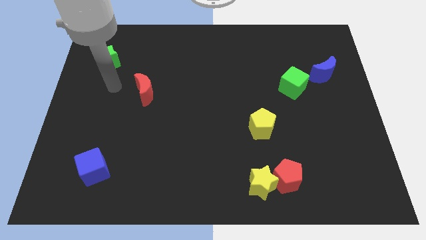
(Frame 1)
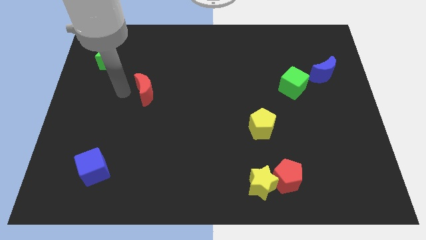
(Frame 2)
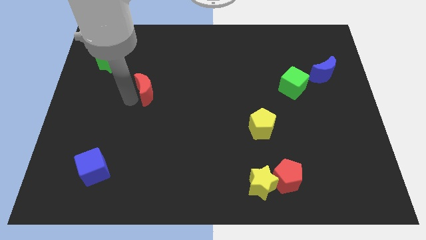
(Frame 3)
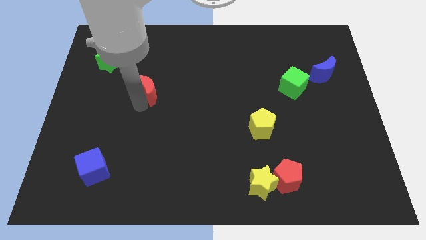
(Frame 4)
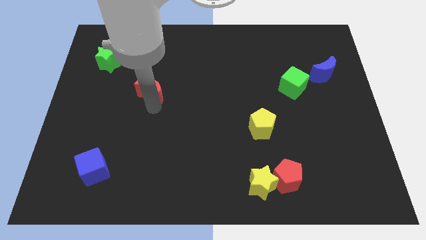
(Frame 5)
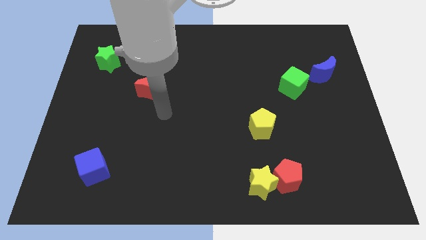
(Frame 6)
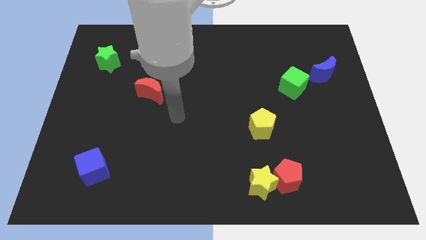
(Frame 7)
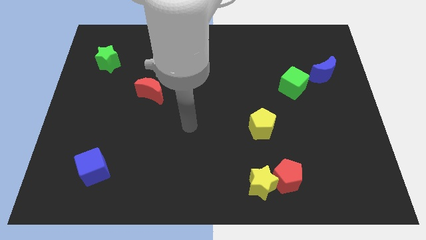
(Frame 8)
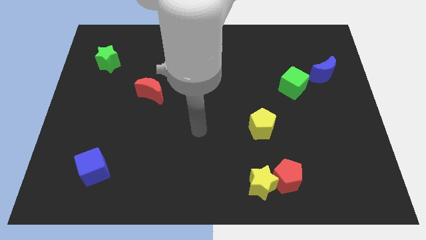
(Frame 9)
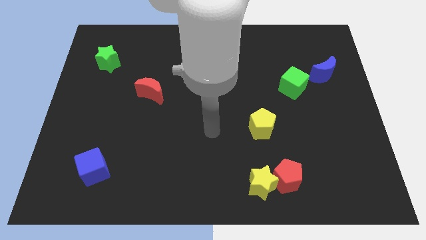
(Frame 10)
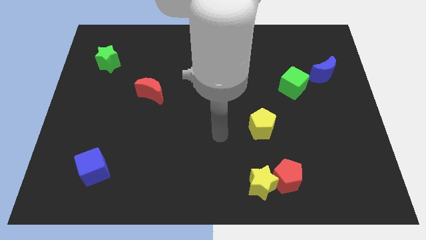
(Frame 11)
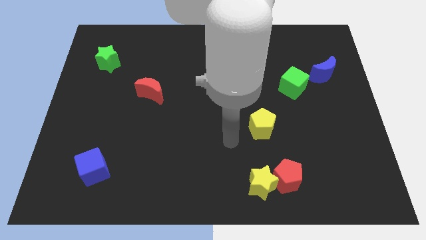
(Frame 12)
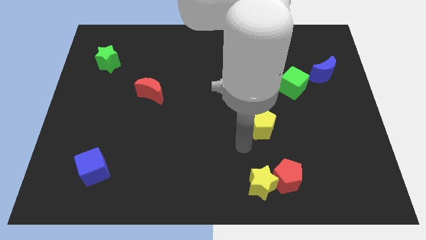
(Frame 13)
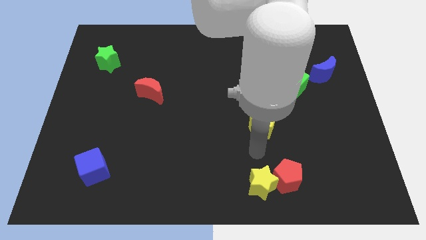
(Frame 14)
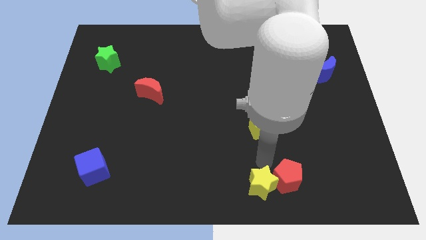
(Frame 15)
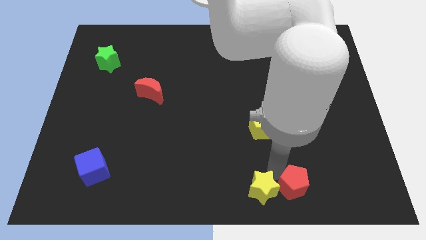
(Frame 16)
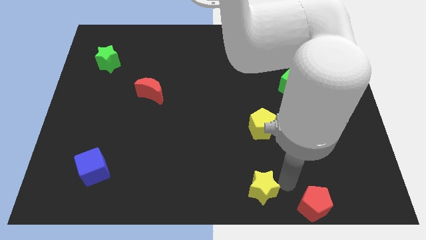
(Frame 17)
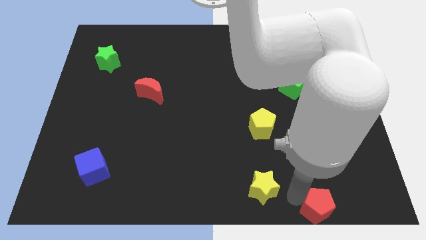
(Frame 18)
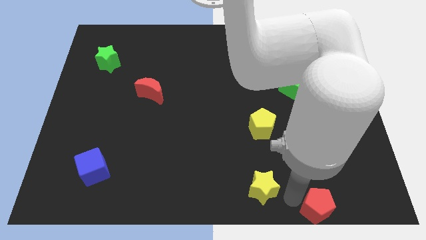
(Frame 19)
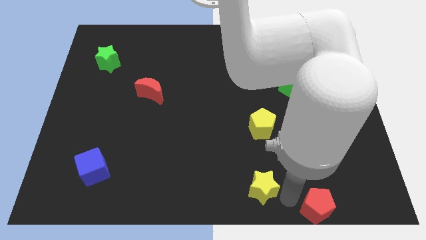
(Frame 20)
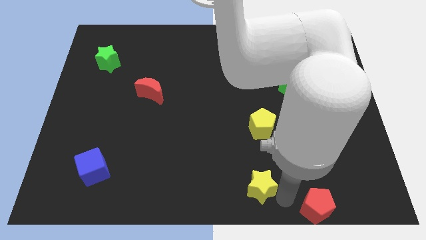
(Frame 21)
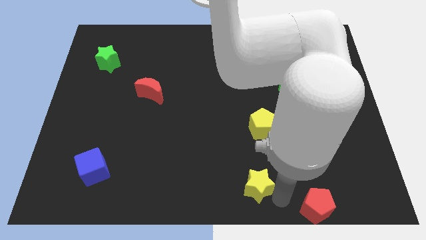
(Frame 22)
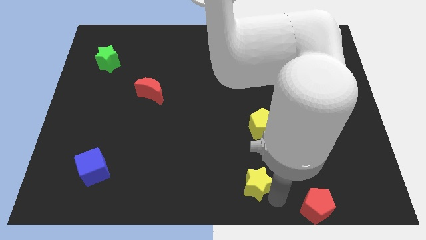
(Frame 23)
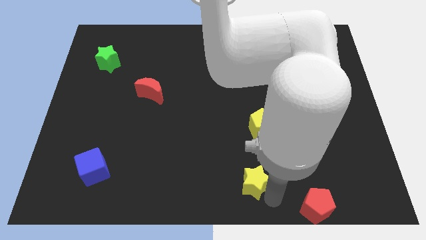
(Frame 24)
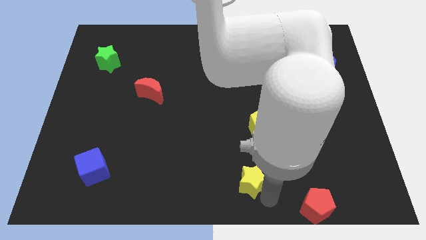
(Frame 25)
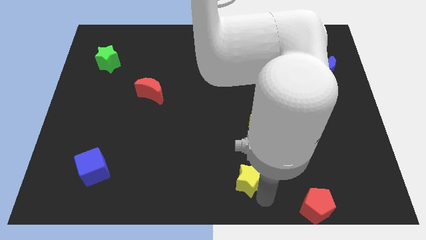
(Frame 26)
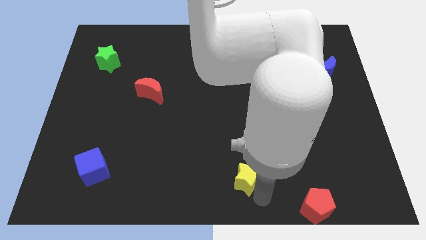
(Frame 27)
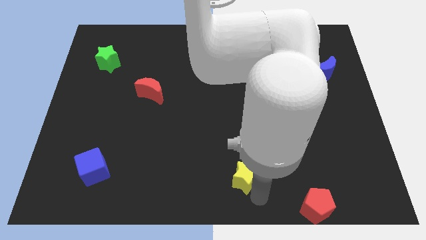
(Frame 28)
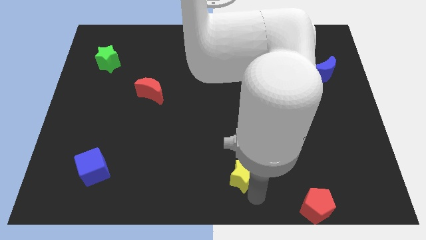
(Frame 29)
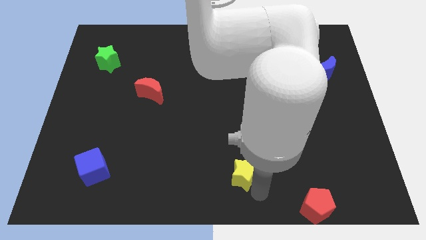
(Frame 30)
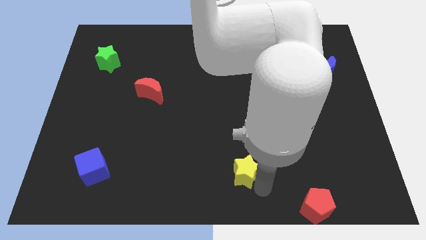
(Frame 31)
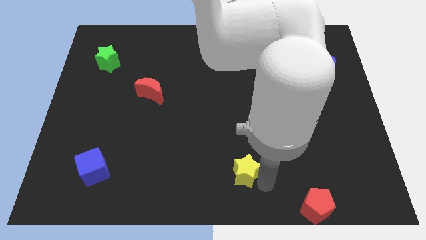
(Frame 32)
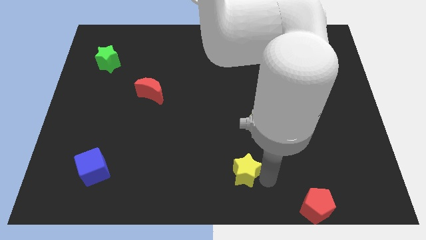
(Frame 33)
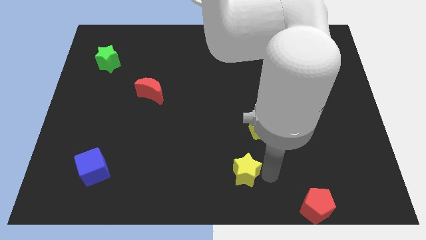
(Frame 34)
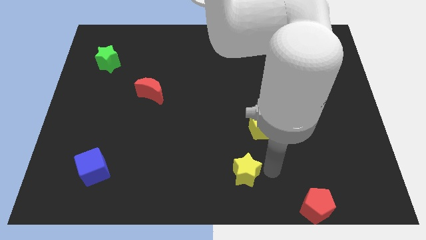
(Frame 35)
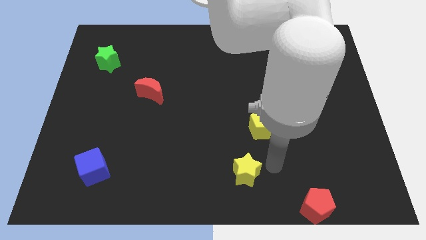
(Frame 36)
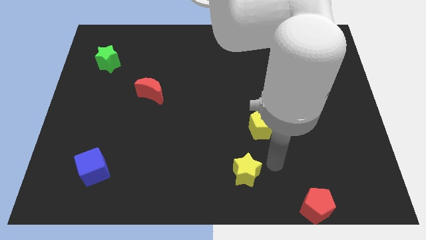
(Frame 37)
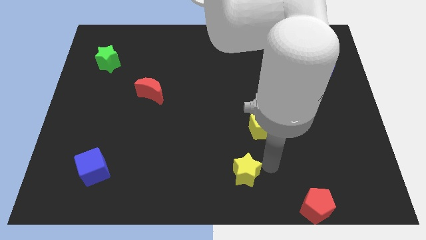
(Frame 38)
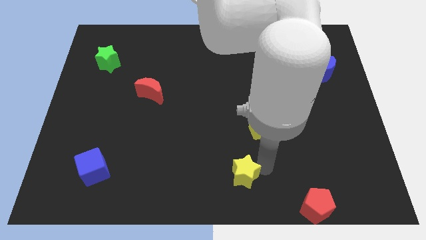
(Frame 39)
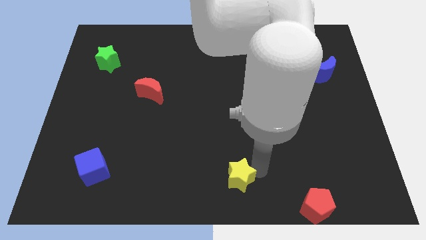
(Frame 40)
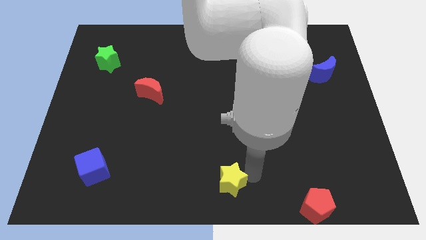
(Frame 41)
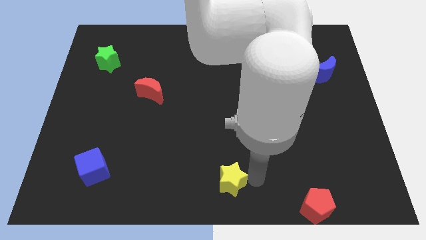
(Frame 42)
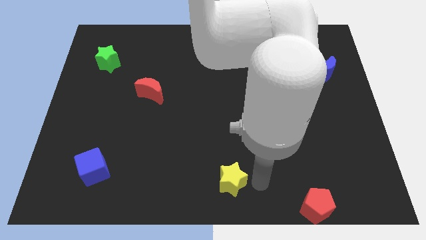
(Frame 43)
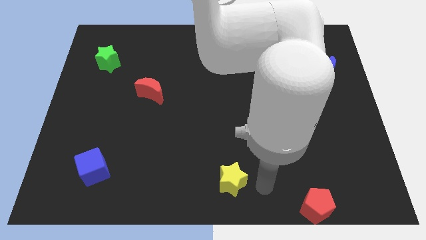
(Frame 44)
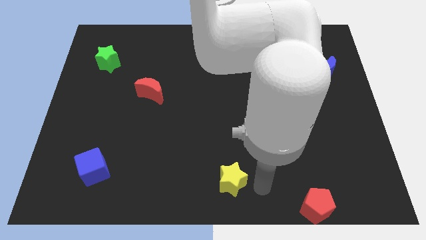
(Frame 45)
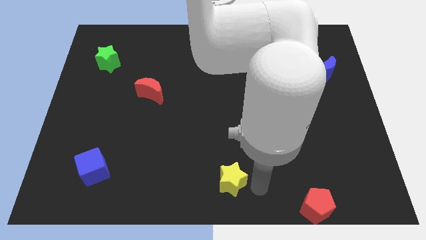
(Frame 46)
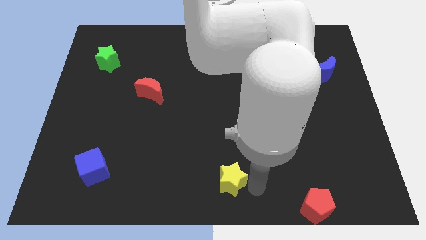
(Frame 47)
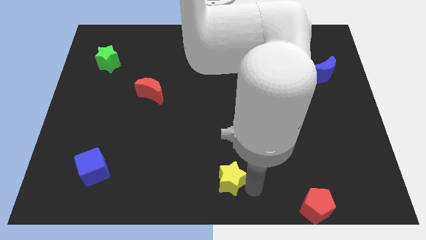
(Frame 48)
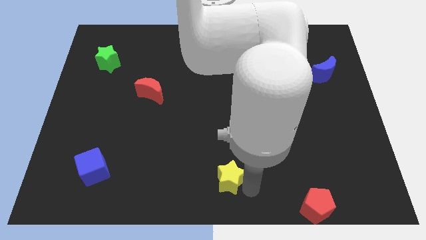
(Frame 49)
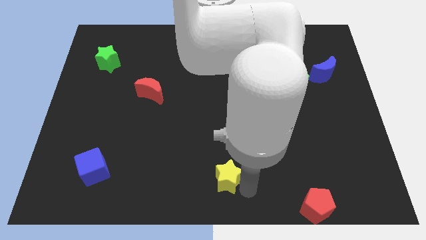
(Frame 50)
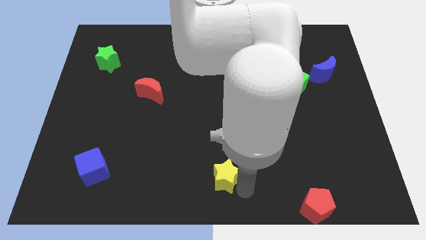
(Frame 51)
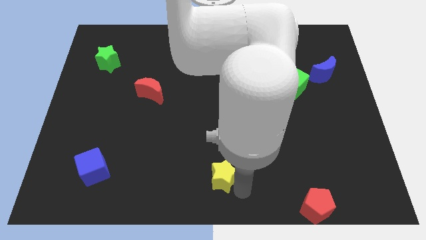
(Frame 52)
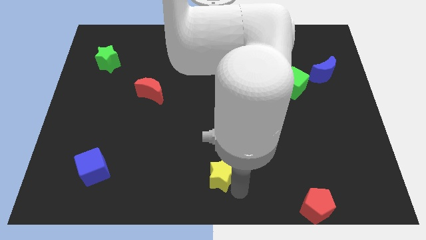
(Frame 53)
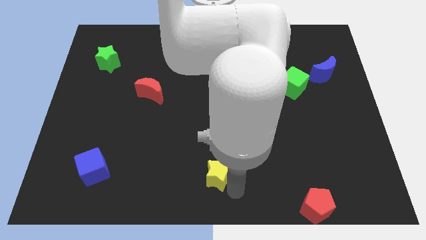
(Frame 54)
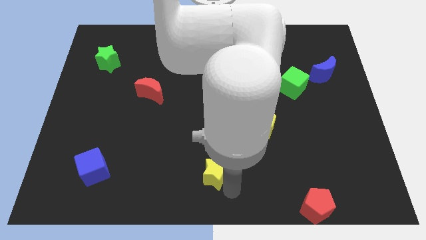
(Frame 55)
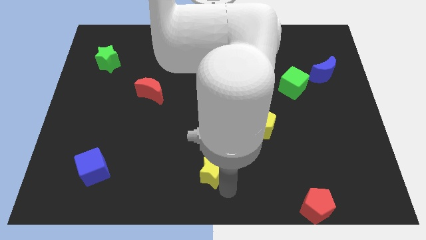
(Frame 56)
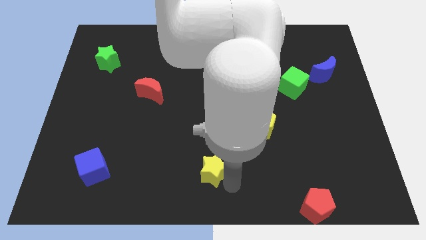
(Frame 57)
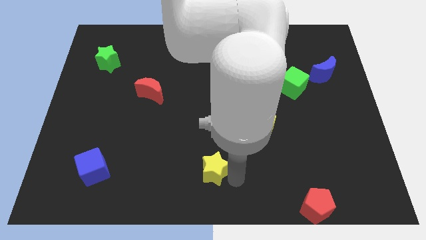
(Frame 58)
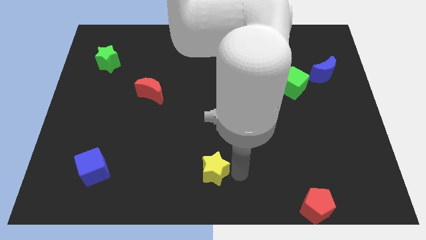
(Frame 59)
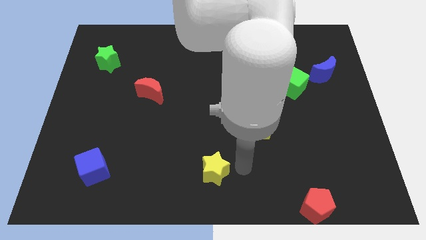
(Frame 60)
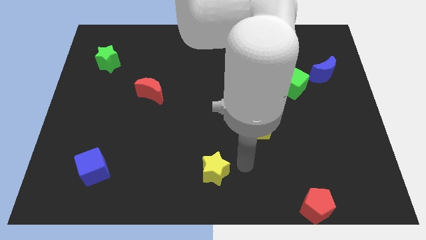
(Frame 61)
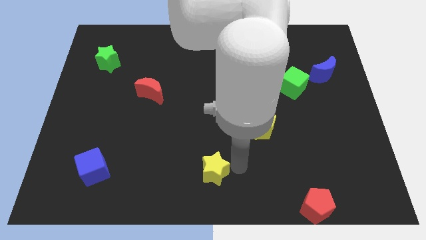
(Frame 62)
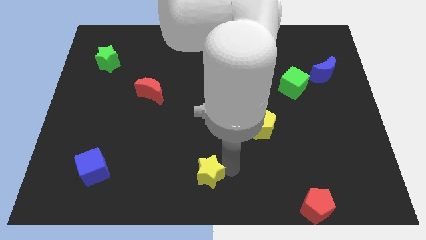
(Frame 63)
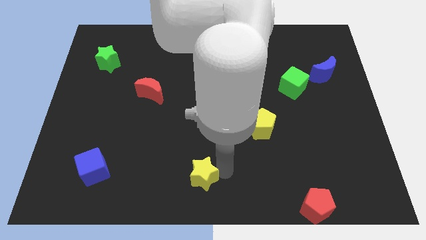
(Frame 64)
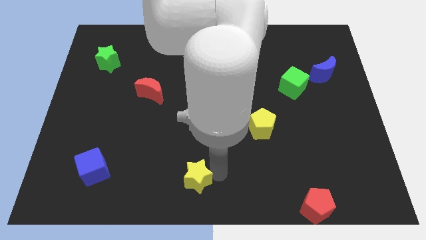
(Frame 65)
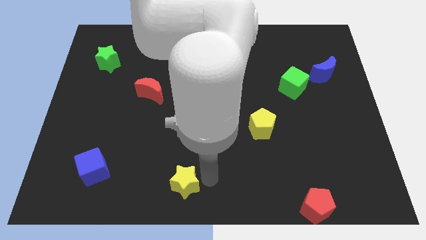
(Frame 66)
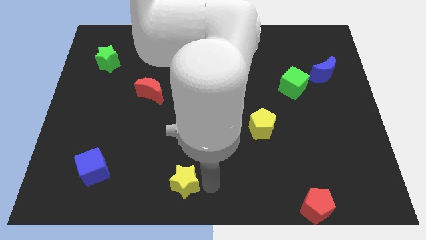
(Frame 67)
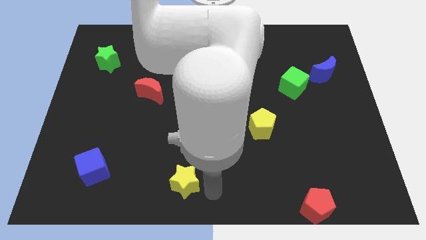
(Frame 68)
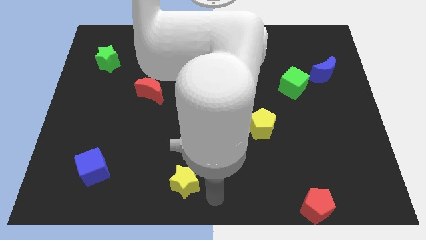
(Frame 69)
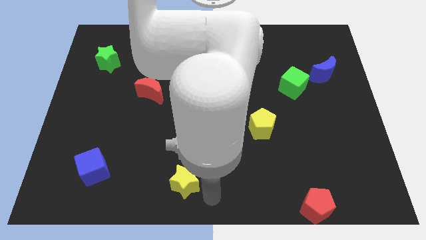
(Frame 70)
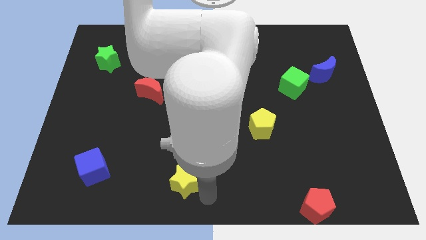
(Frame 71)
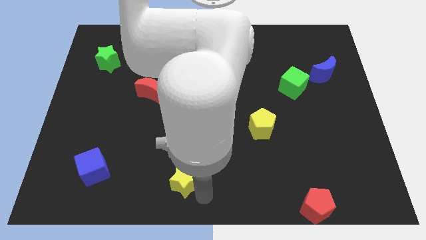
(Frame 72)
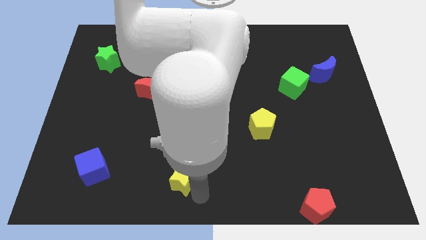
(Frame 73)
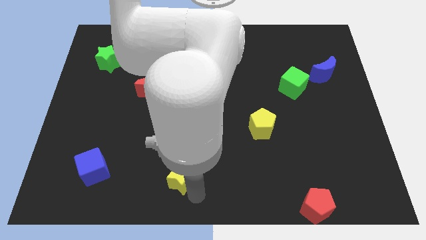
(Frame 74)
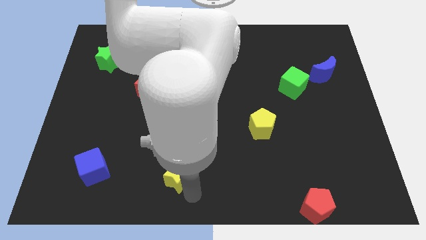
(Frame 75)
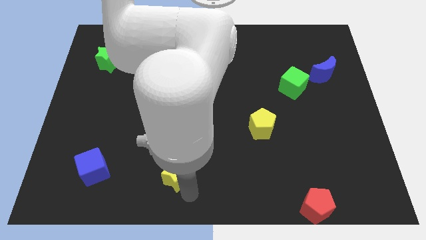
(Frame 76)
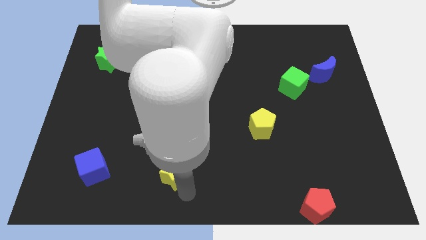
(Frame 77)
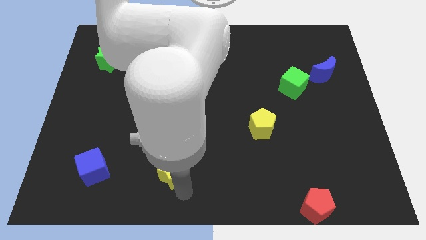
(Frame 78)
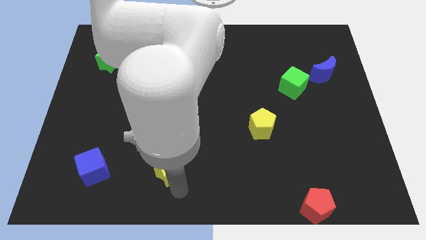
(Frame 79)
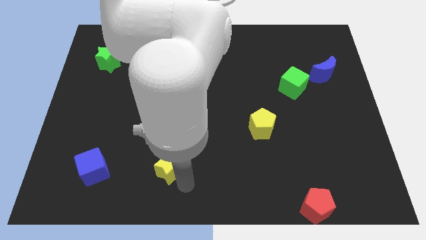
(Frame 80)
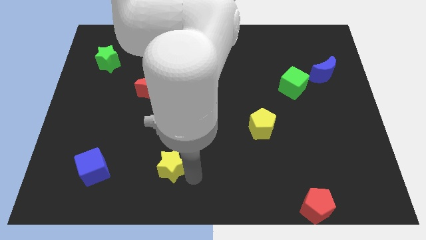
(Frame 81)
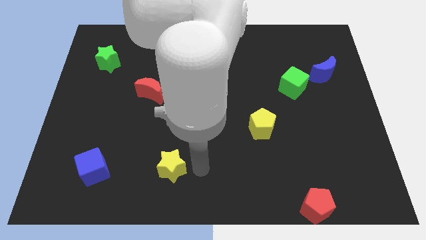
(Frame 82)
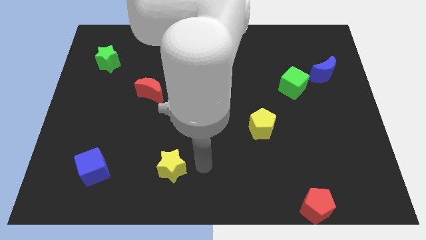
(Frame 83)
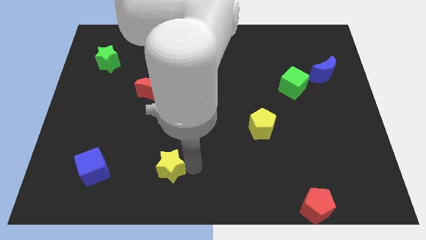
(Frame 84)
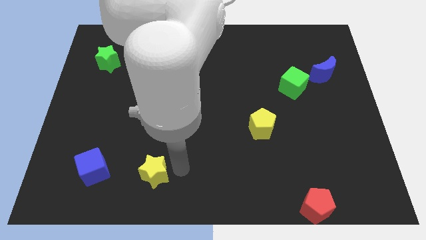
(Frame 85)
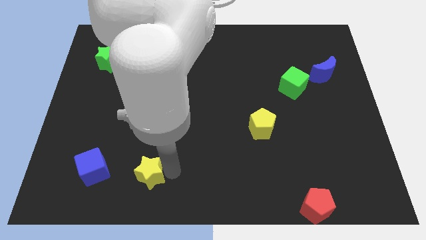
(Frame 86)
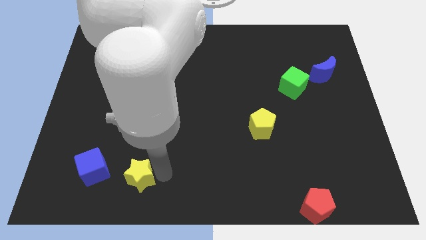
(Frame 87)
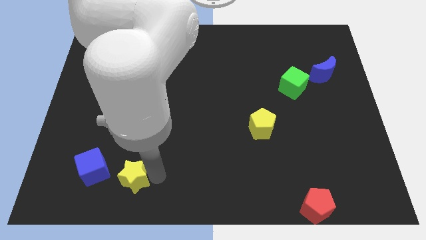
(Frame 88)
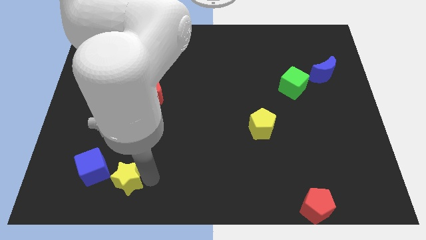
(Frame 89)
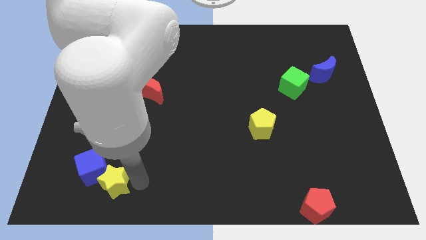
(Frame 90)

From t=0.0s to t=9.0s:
move the yellow star towards the blue cube
